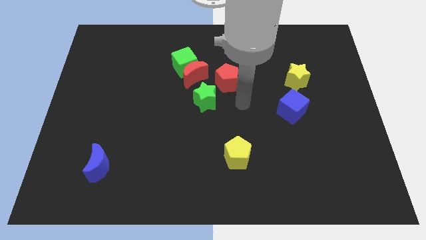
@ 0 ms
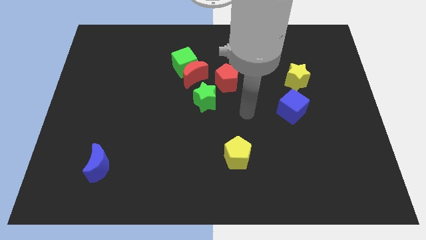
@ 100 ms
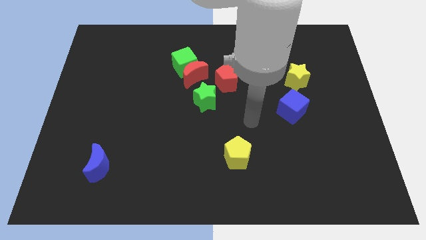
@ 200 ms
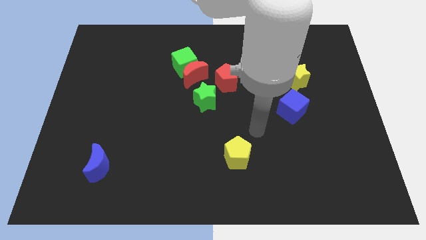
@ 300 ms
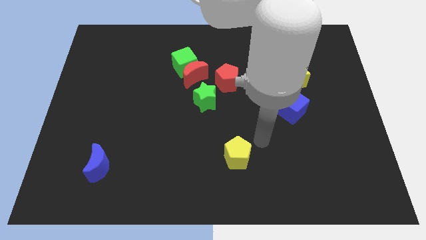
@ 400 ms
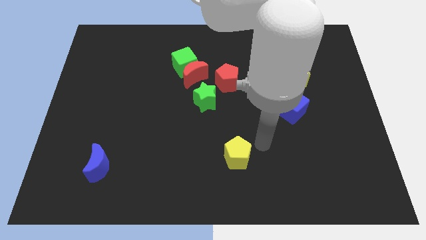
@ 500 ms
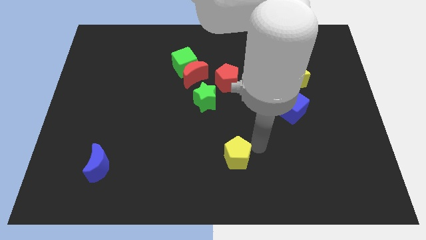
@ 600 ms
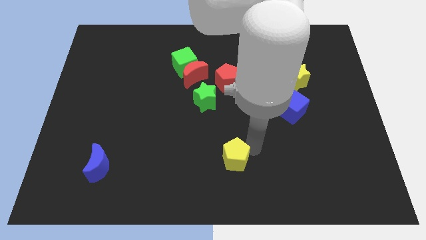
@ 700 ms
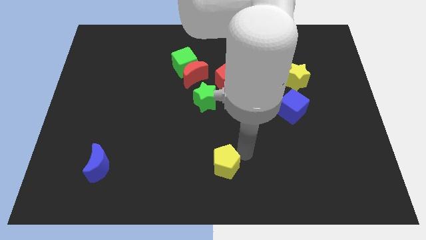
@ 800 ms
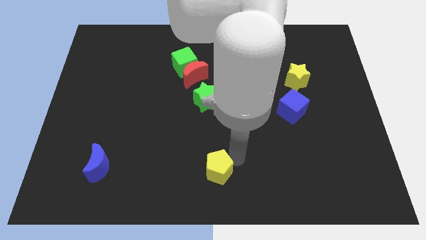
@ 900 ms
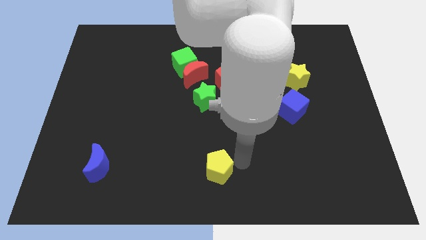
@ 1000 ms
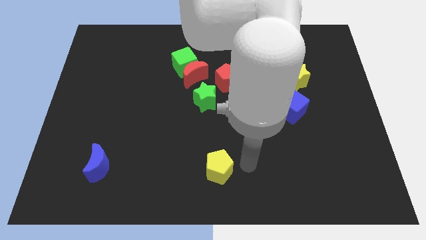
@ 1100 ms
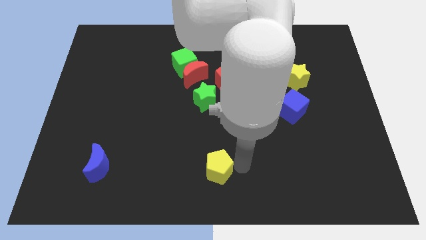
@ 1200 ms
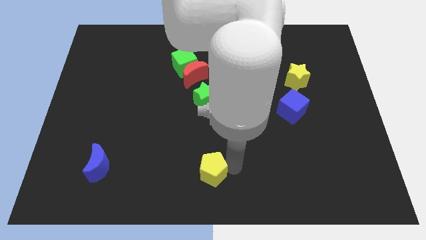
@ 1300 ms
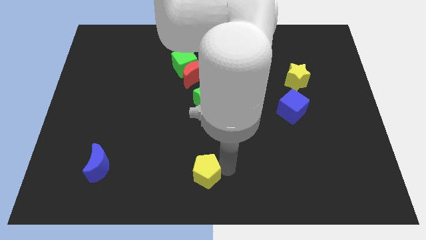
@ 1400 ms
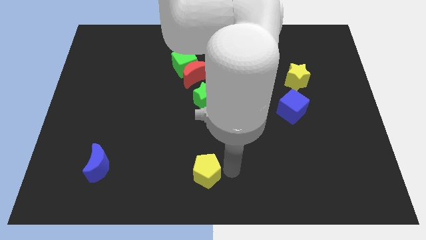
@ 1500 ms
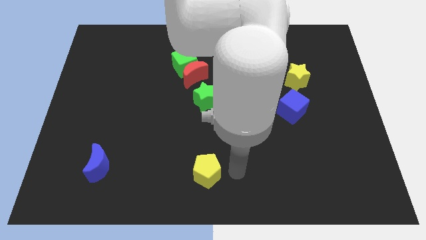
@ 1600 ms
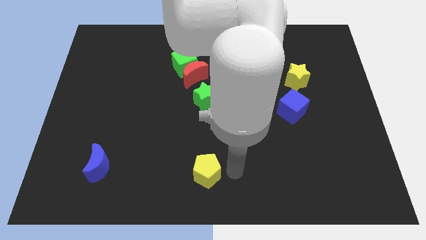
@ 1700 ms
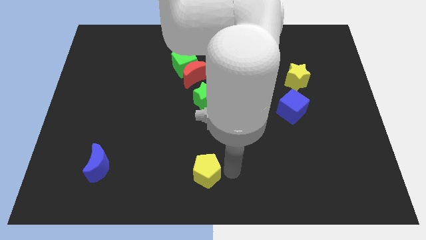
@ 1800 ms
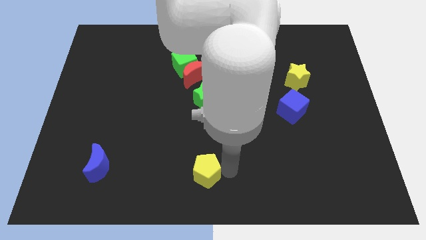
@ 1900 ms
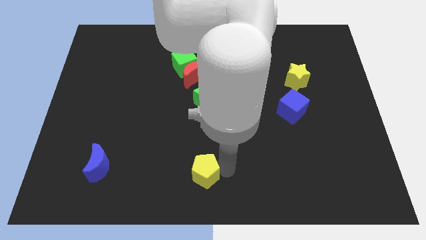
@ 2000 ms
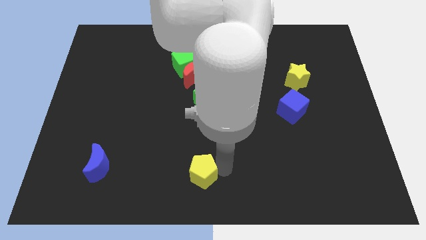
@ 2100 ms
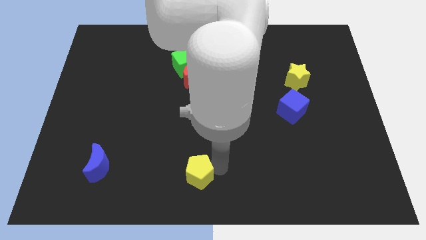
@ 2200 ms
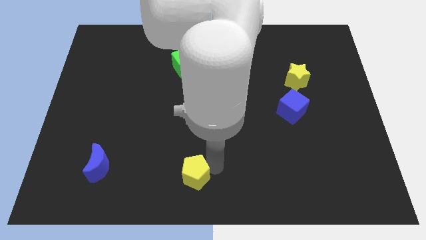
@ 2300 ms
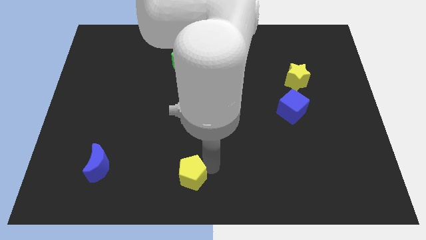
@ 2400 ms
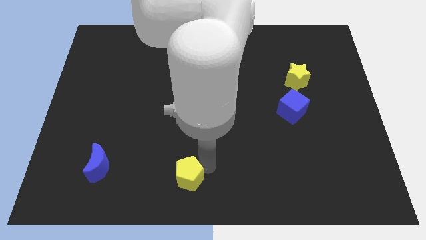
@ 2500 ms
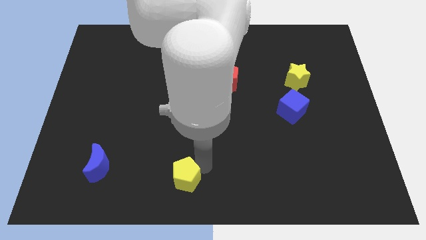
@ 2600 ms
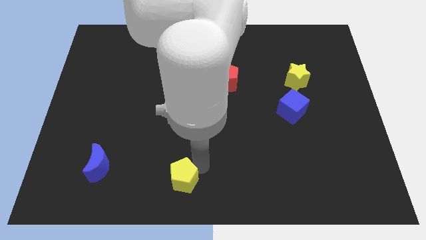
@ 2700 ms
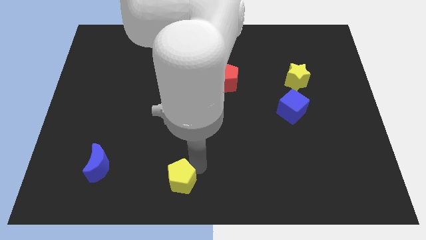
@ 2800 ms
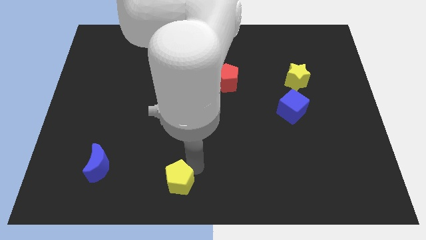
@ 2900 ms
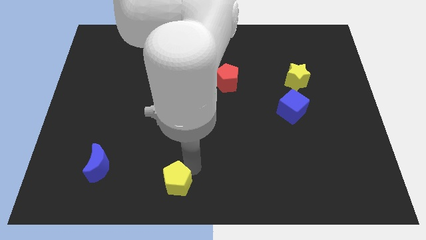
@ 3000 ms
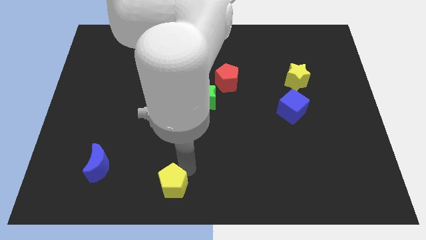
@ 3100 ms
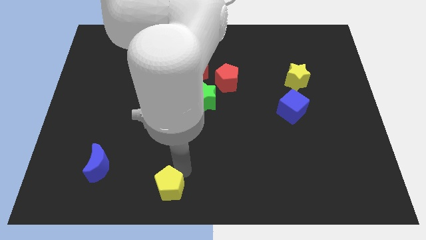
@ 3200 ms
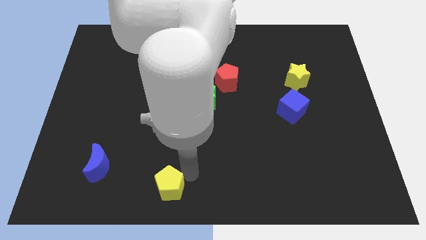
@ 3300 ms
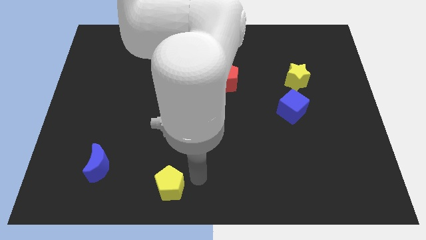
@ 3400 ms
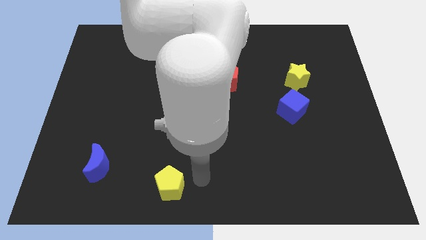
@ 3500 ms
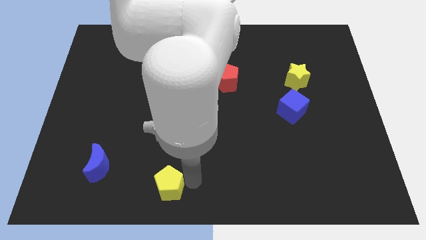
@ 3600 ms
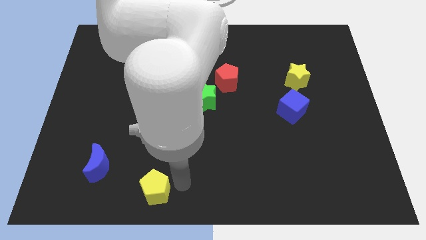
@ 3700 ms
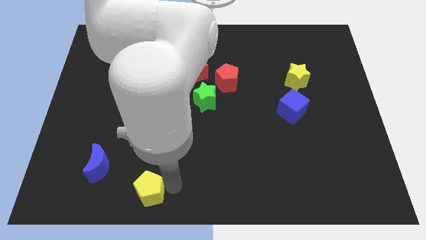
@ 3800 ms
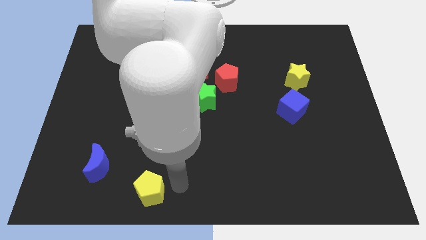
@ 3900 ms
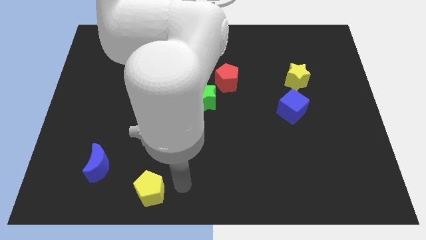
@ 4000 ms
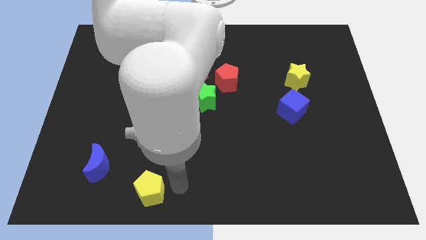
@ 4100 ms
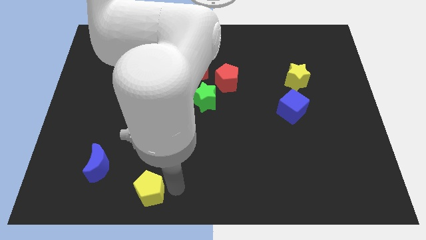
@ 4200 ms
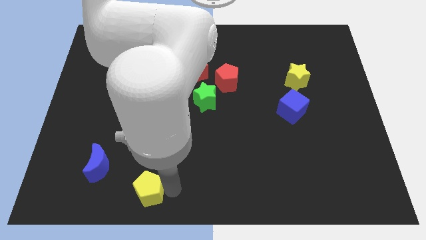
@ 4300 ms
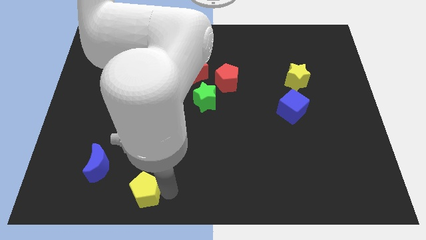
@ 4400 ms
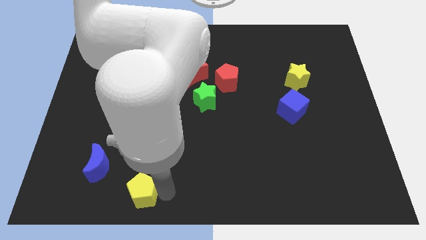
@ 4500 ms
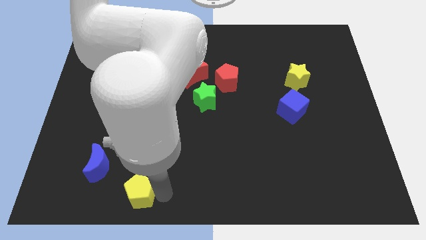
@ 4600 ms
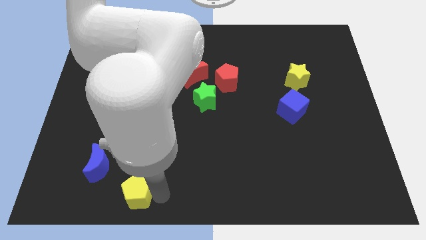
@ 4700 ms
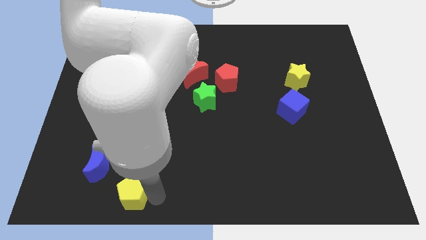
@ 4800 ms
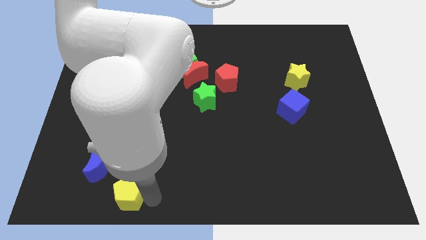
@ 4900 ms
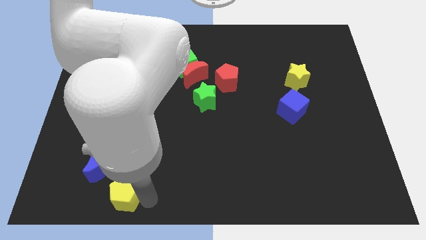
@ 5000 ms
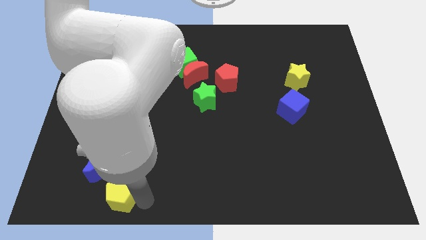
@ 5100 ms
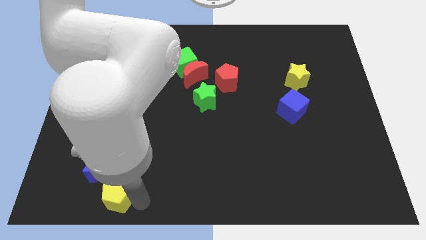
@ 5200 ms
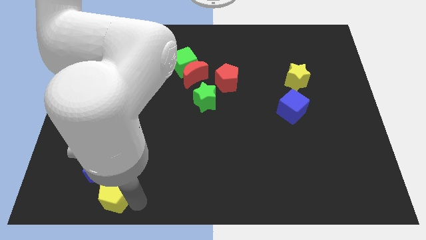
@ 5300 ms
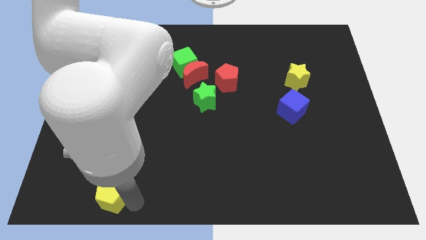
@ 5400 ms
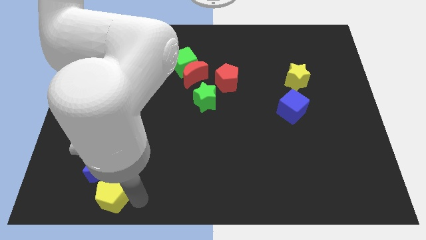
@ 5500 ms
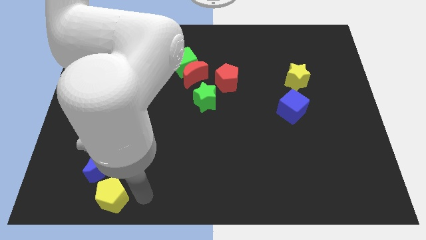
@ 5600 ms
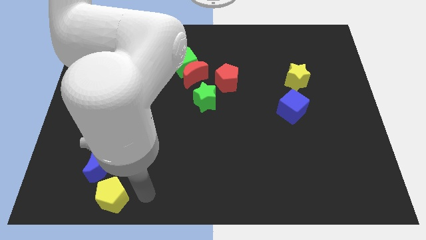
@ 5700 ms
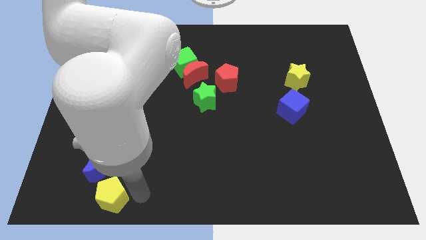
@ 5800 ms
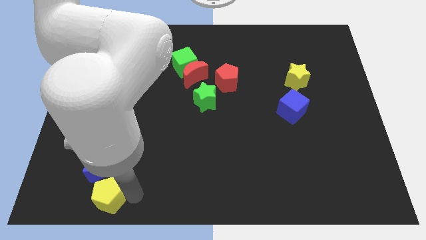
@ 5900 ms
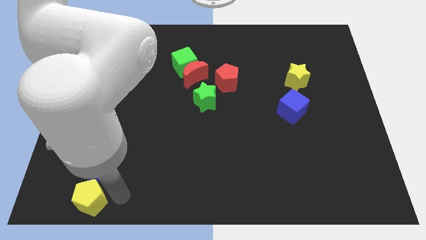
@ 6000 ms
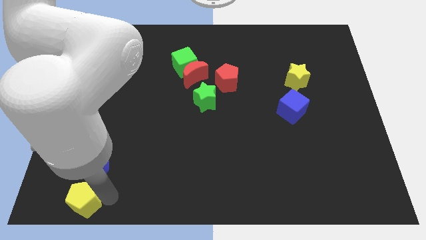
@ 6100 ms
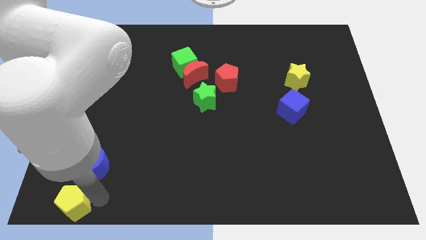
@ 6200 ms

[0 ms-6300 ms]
push the yellow pentagon to the bottom left corner
